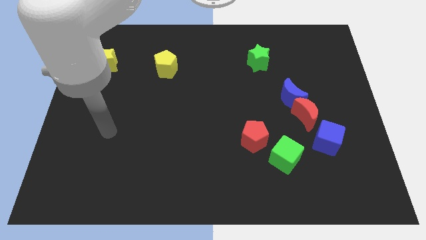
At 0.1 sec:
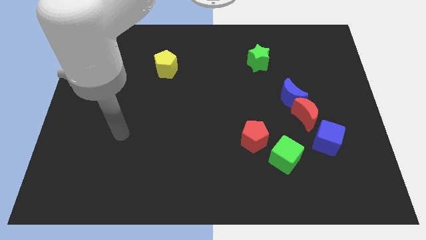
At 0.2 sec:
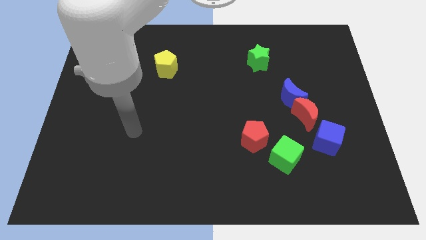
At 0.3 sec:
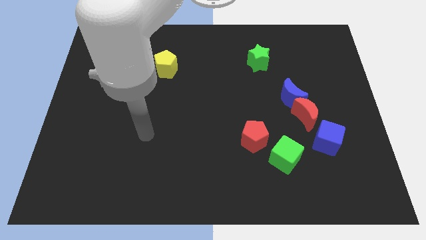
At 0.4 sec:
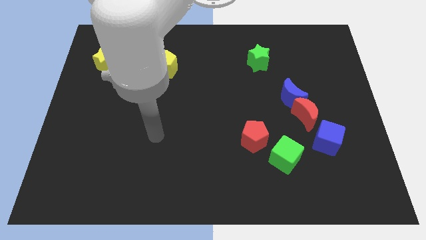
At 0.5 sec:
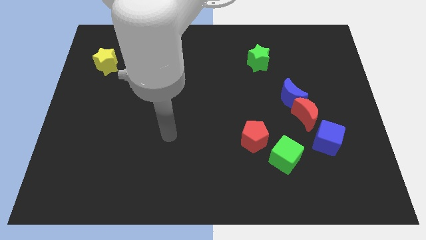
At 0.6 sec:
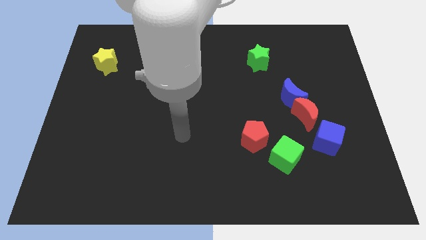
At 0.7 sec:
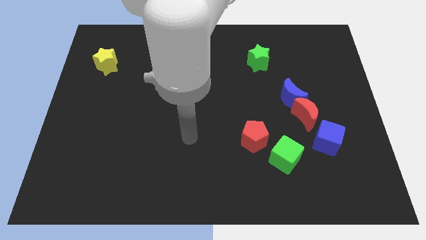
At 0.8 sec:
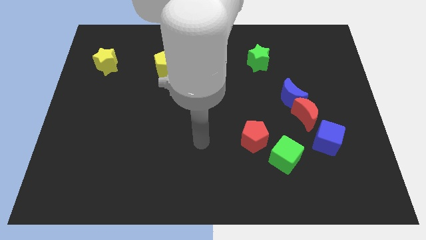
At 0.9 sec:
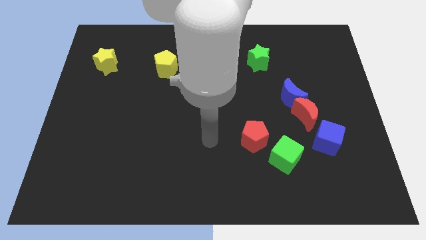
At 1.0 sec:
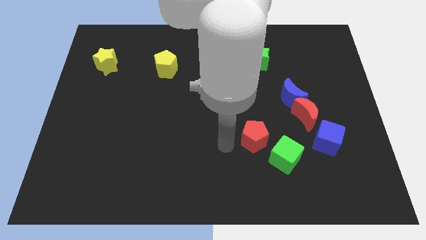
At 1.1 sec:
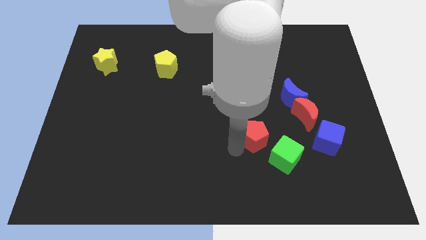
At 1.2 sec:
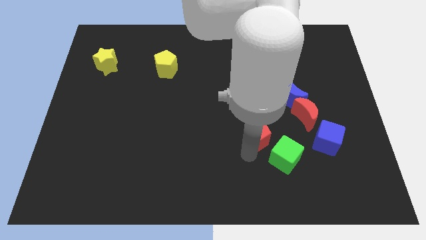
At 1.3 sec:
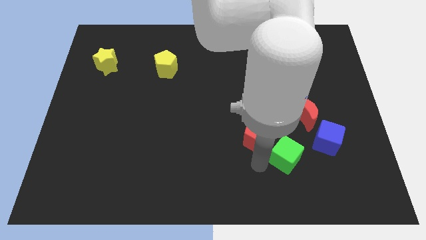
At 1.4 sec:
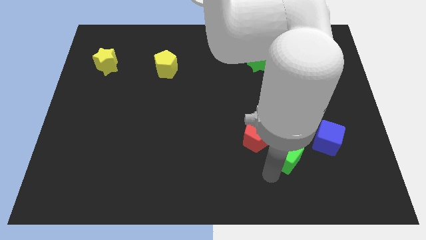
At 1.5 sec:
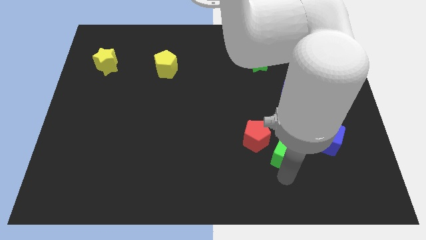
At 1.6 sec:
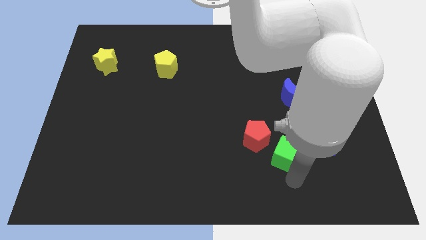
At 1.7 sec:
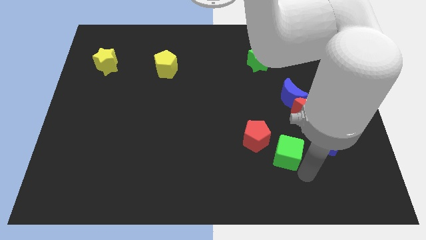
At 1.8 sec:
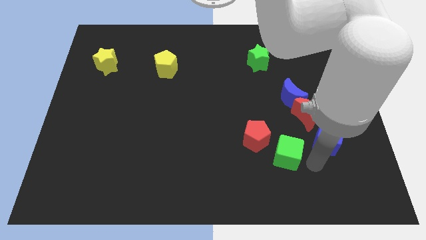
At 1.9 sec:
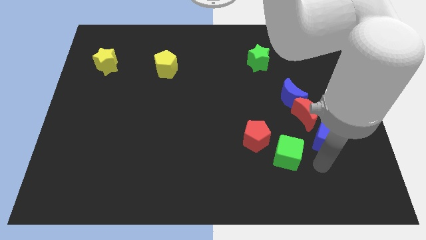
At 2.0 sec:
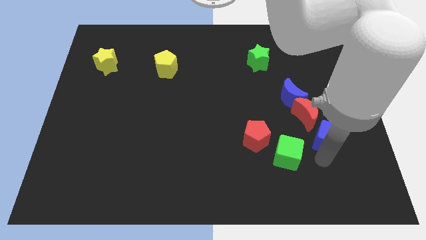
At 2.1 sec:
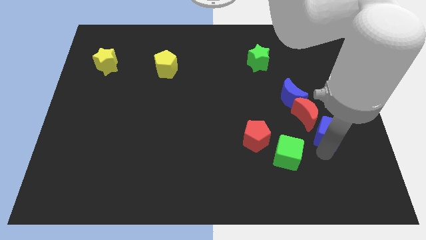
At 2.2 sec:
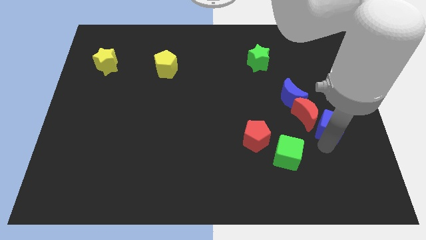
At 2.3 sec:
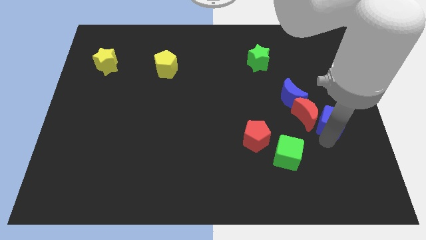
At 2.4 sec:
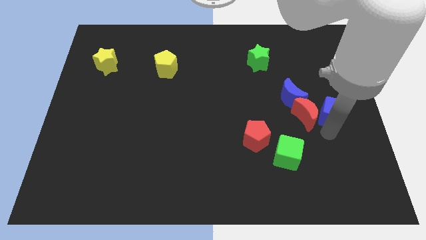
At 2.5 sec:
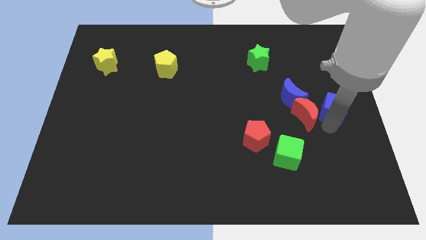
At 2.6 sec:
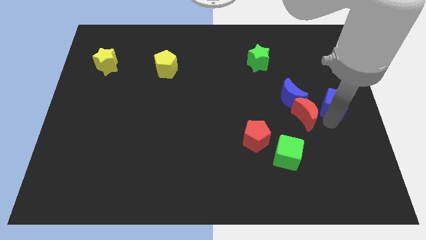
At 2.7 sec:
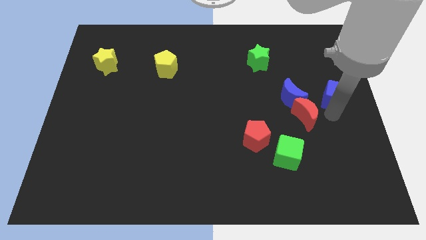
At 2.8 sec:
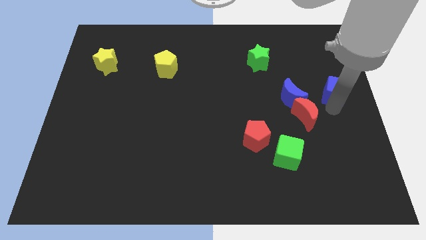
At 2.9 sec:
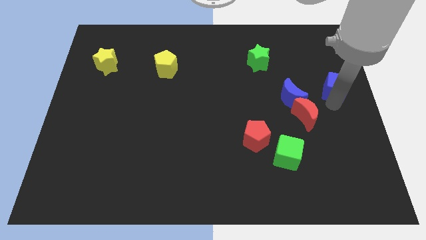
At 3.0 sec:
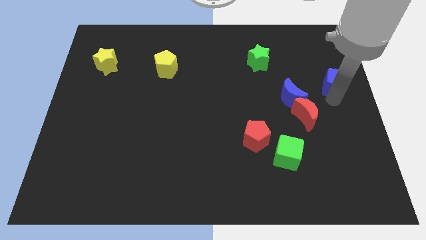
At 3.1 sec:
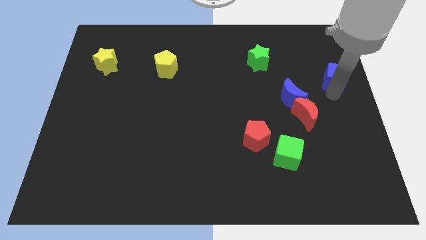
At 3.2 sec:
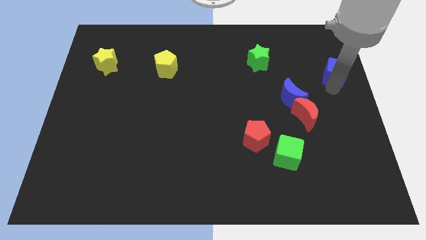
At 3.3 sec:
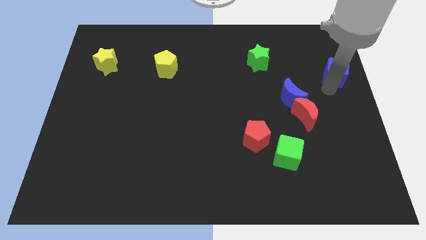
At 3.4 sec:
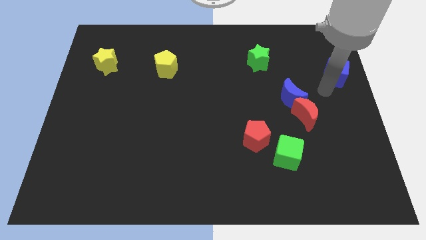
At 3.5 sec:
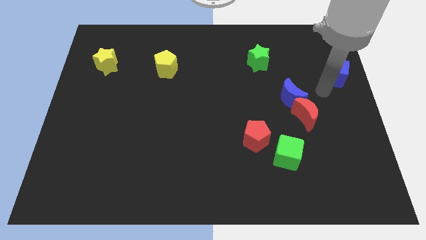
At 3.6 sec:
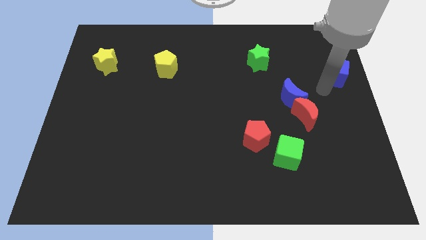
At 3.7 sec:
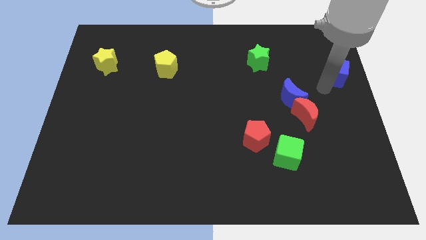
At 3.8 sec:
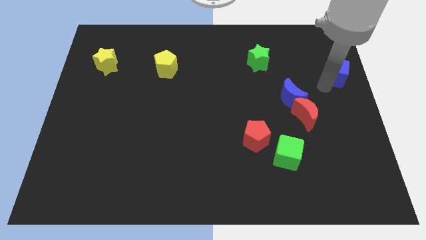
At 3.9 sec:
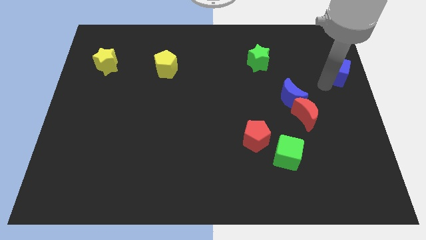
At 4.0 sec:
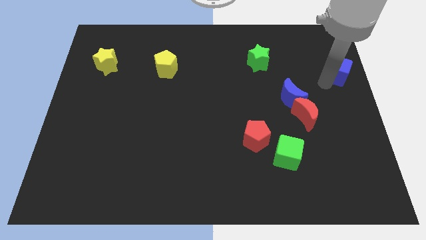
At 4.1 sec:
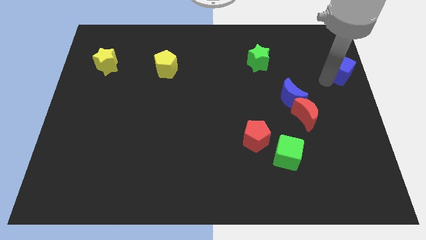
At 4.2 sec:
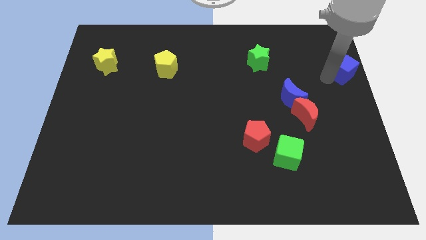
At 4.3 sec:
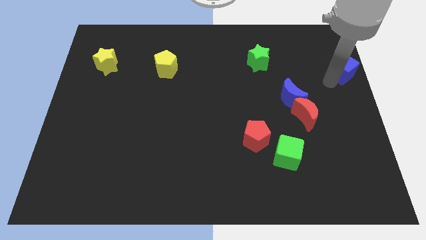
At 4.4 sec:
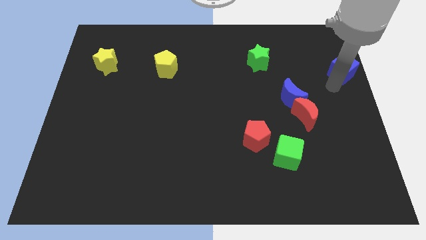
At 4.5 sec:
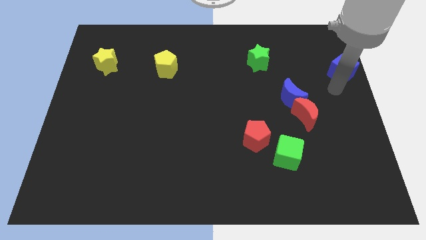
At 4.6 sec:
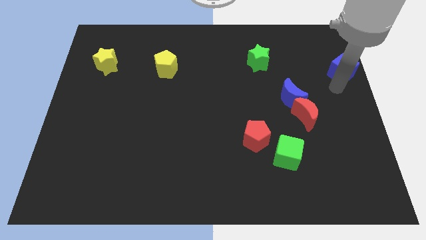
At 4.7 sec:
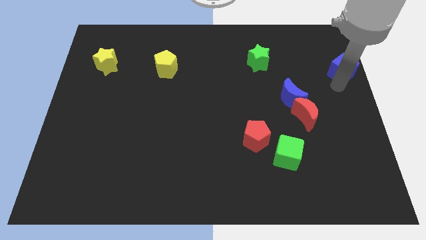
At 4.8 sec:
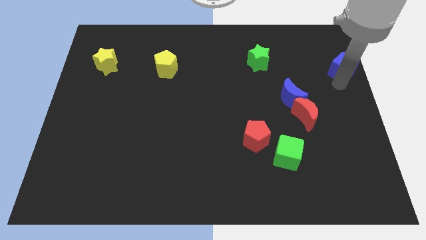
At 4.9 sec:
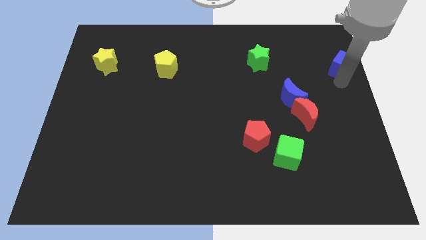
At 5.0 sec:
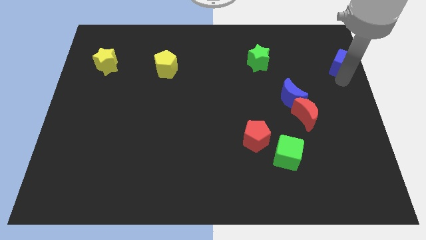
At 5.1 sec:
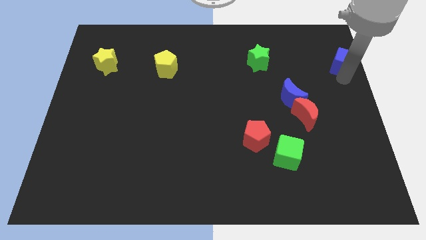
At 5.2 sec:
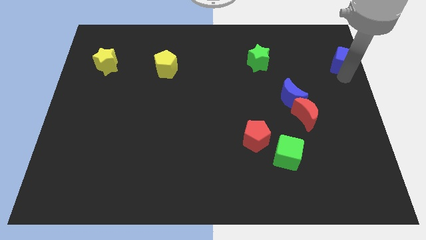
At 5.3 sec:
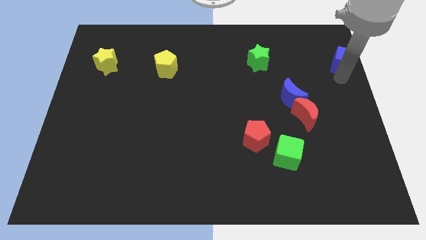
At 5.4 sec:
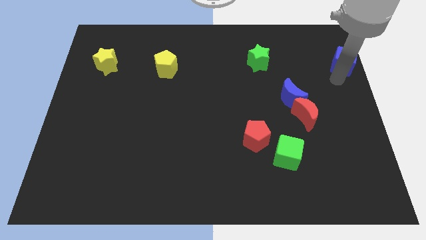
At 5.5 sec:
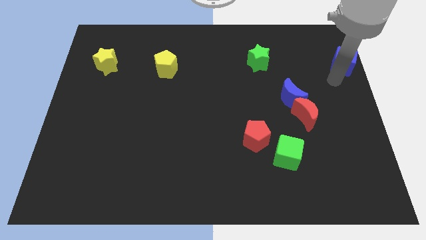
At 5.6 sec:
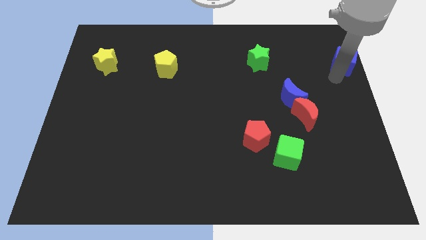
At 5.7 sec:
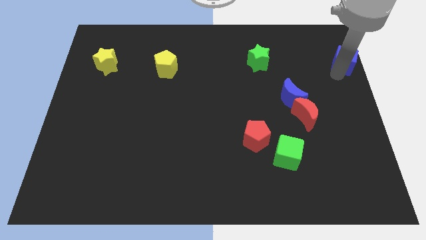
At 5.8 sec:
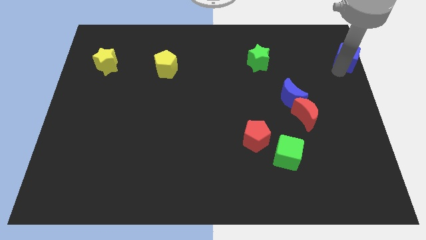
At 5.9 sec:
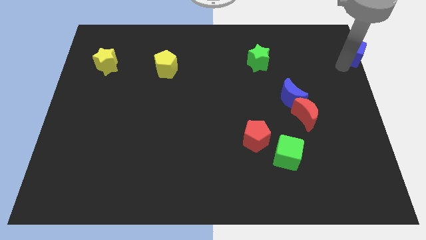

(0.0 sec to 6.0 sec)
push the blue cube to the upper right corner
